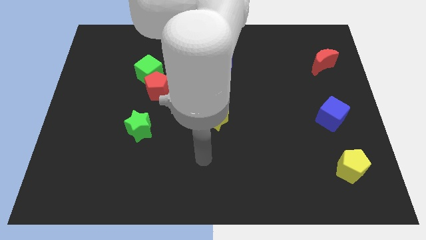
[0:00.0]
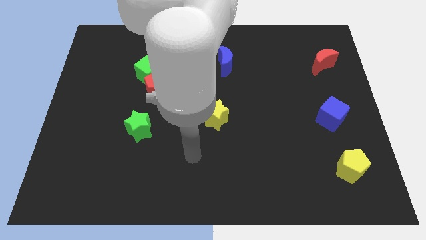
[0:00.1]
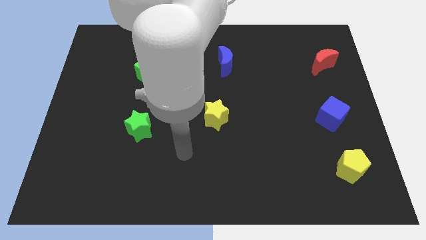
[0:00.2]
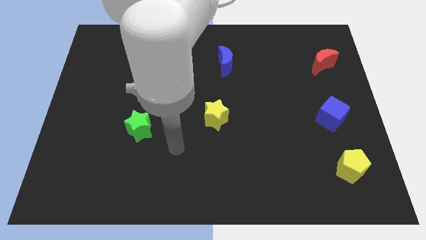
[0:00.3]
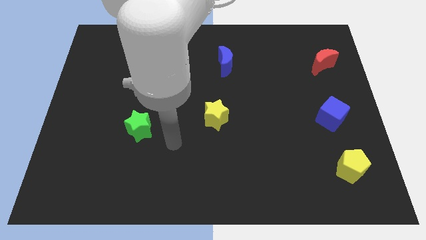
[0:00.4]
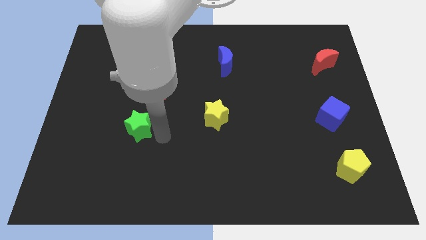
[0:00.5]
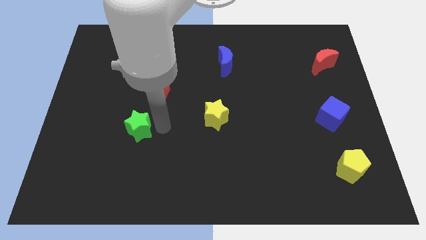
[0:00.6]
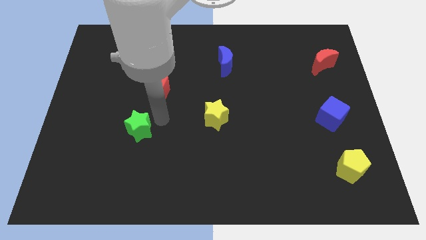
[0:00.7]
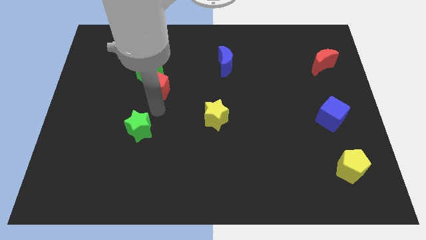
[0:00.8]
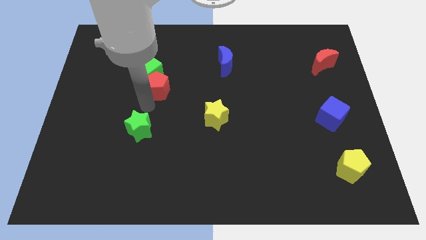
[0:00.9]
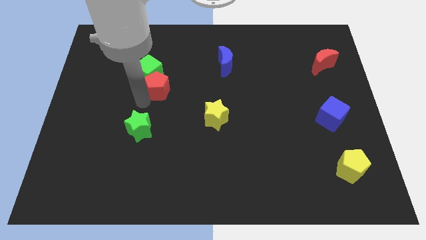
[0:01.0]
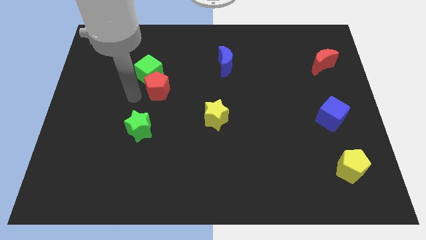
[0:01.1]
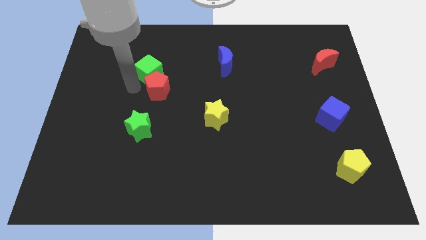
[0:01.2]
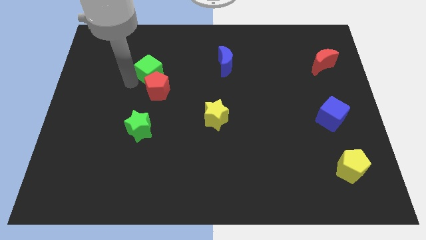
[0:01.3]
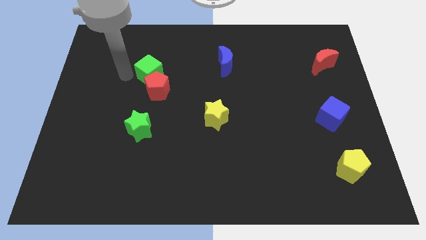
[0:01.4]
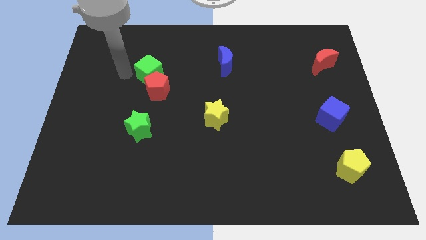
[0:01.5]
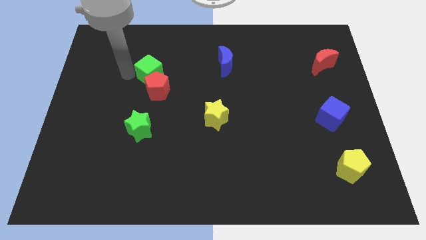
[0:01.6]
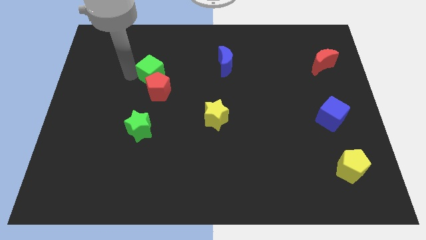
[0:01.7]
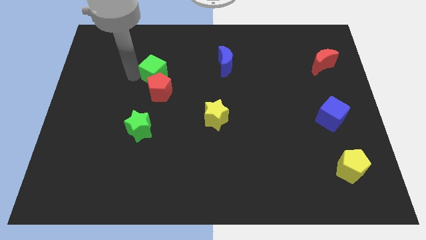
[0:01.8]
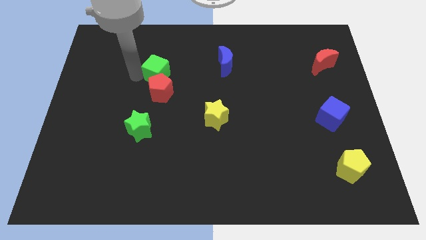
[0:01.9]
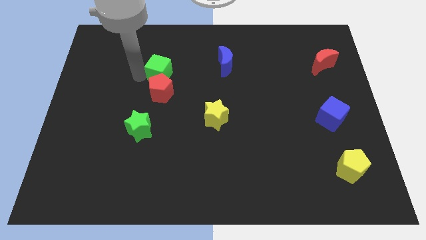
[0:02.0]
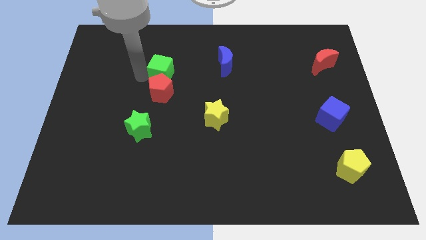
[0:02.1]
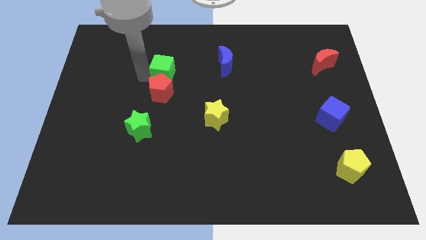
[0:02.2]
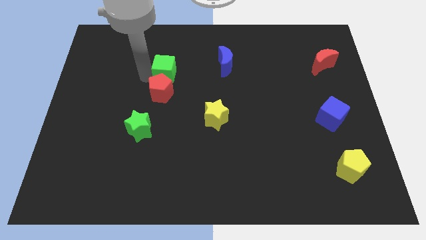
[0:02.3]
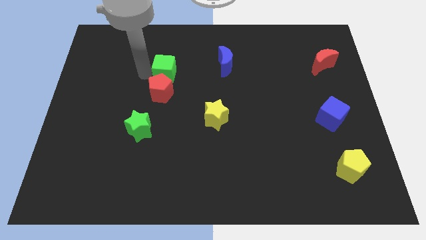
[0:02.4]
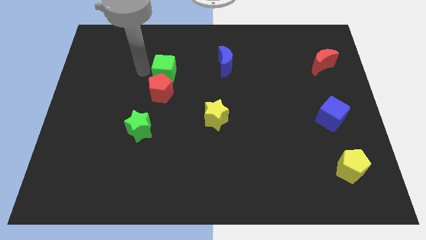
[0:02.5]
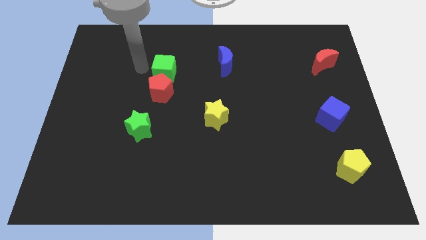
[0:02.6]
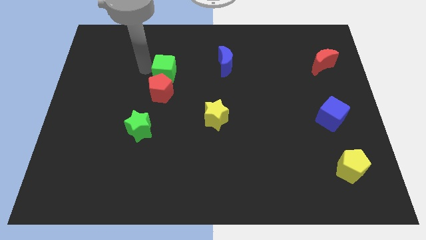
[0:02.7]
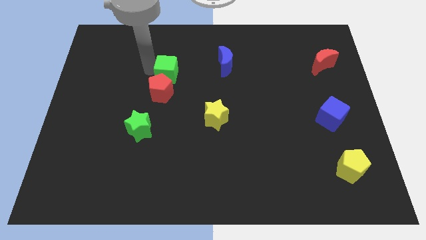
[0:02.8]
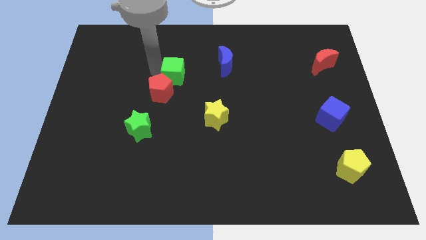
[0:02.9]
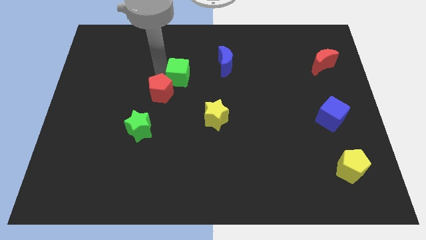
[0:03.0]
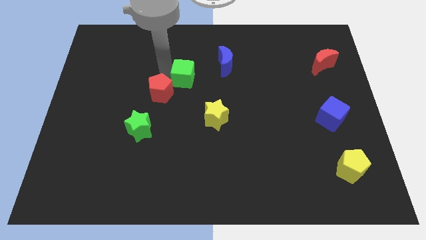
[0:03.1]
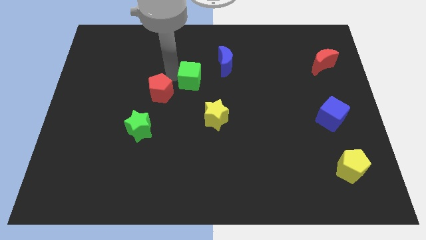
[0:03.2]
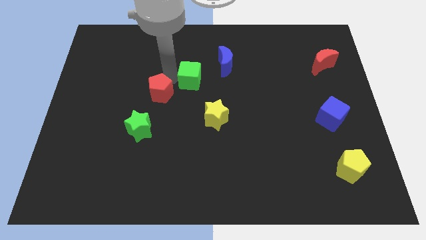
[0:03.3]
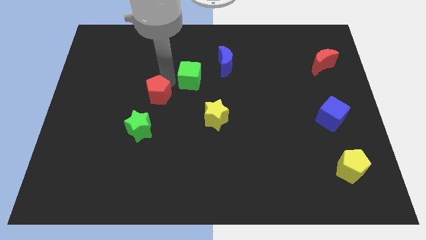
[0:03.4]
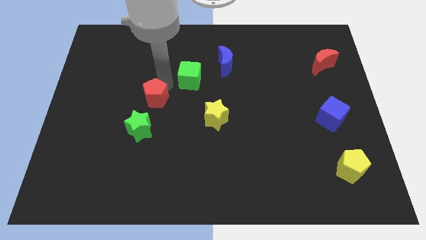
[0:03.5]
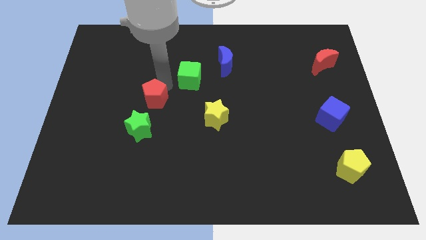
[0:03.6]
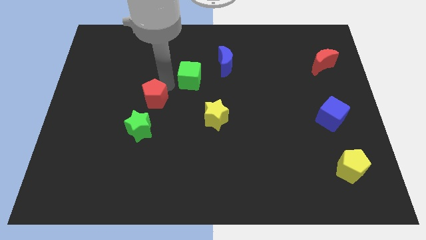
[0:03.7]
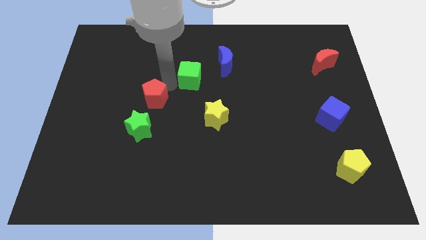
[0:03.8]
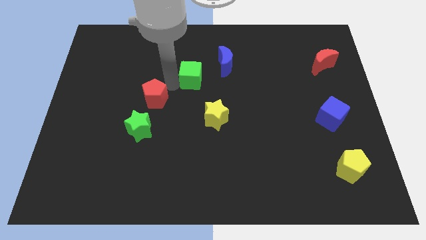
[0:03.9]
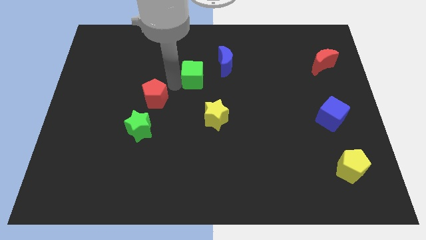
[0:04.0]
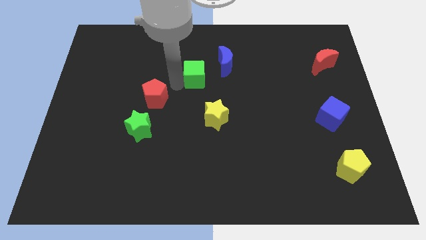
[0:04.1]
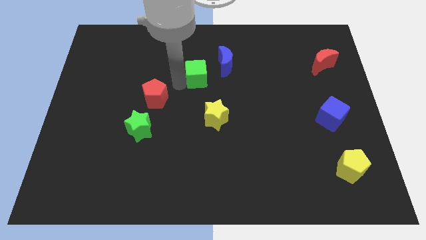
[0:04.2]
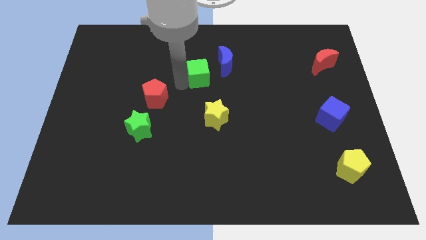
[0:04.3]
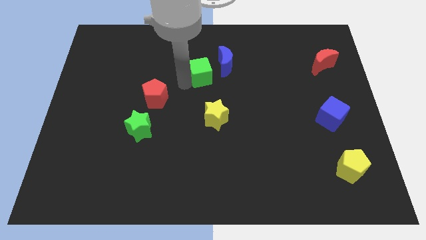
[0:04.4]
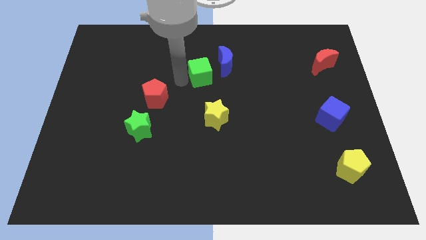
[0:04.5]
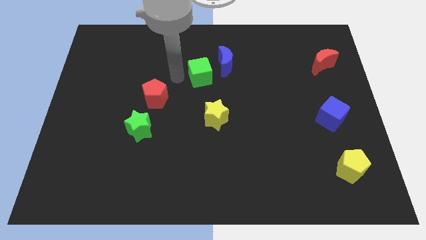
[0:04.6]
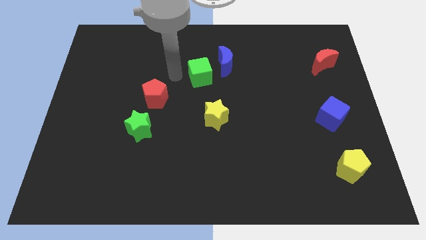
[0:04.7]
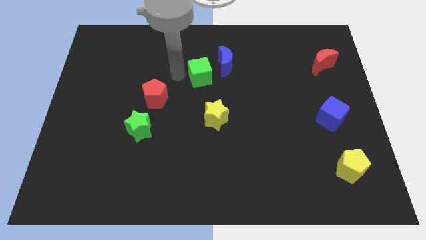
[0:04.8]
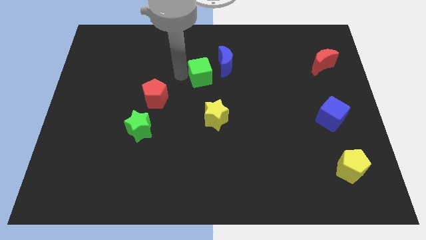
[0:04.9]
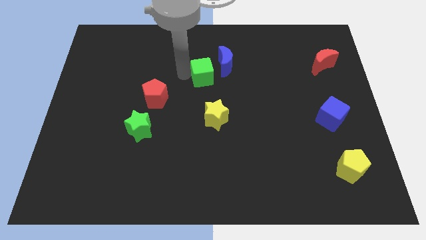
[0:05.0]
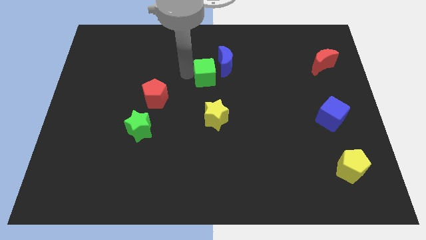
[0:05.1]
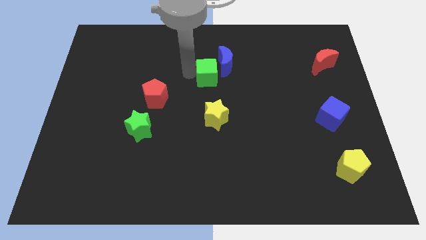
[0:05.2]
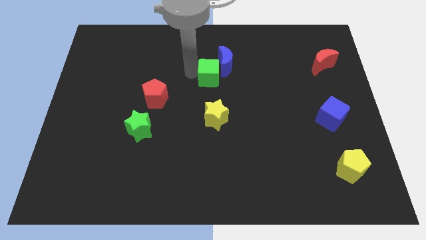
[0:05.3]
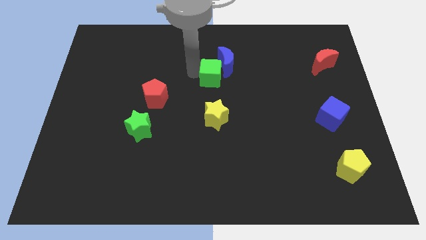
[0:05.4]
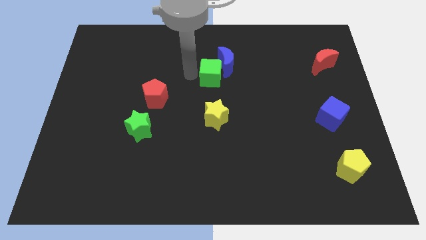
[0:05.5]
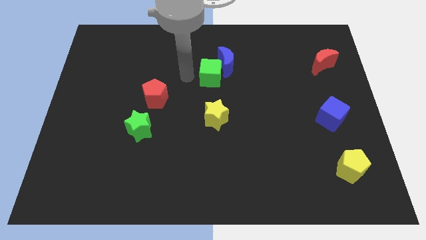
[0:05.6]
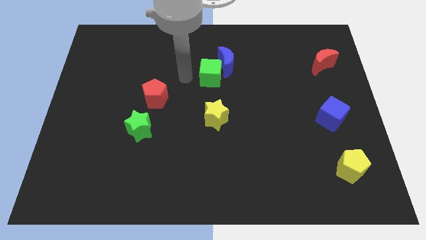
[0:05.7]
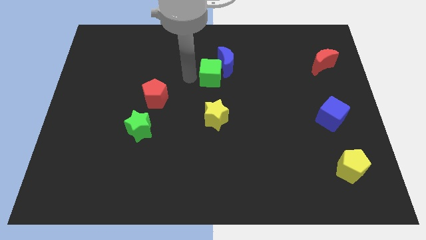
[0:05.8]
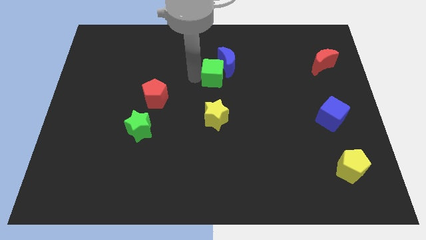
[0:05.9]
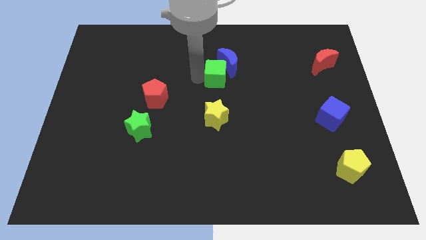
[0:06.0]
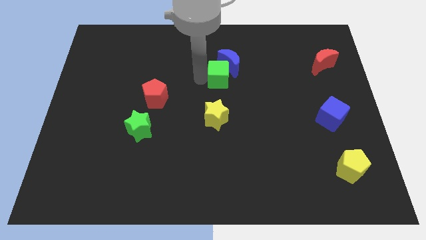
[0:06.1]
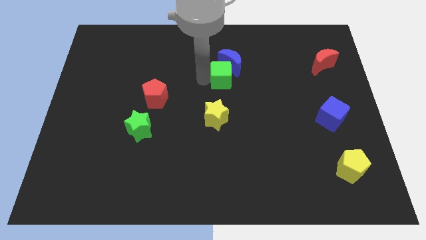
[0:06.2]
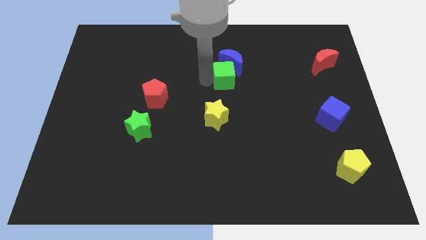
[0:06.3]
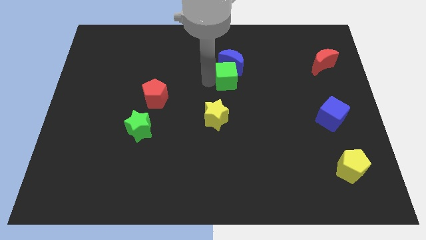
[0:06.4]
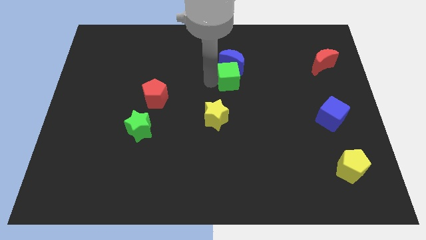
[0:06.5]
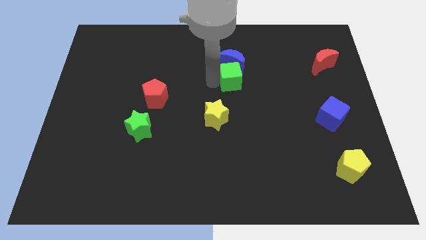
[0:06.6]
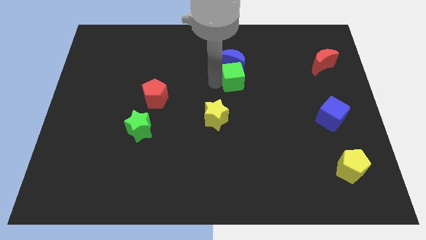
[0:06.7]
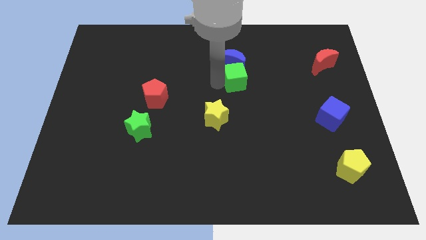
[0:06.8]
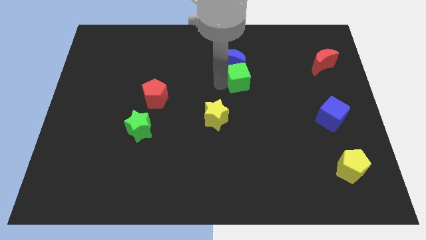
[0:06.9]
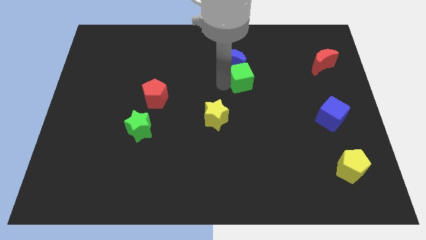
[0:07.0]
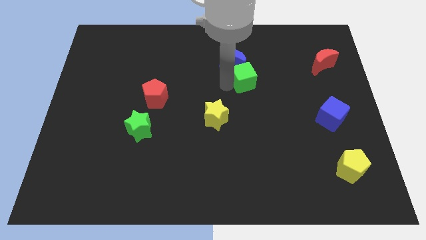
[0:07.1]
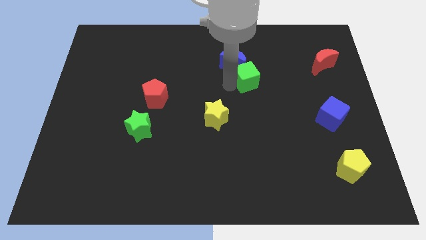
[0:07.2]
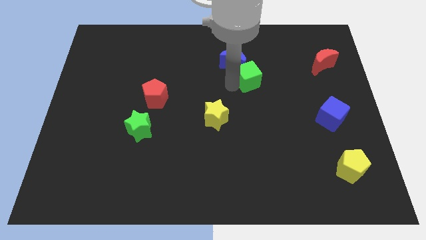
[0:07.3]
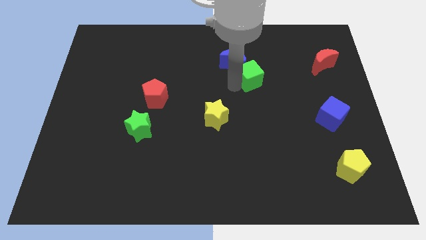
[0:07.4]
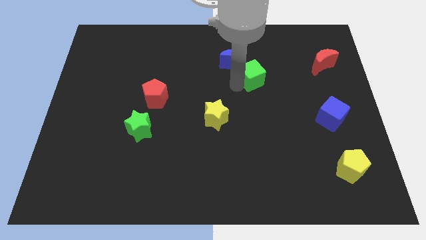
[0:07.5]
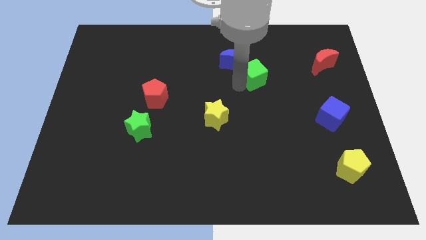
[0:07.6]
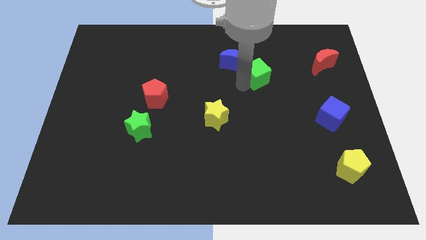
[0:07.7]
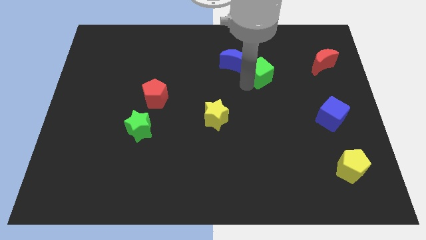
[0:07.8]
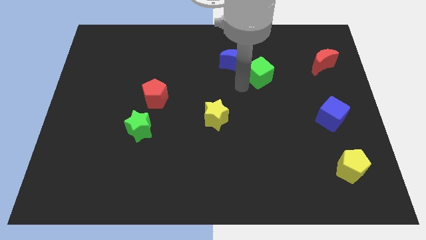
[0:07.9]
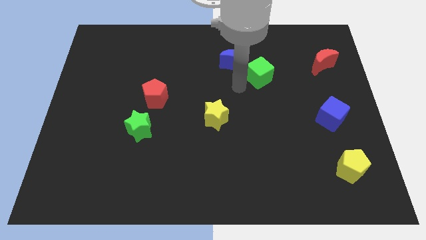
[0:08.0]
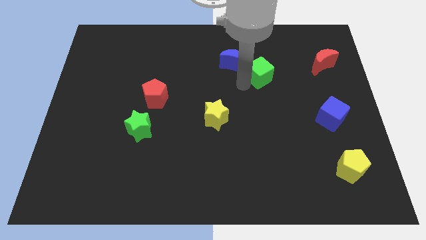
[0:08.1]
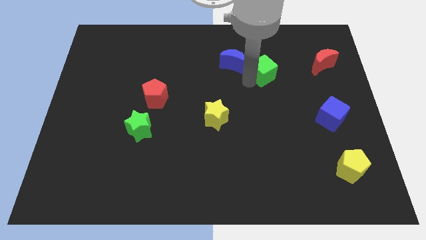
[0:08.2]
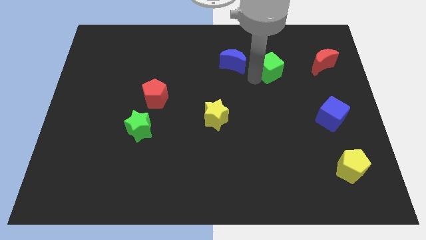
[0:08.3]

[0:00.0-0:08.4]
slide the green cube to the left side of the red moon
